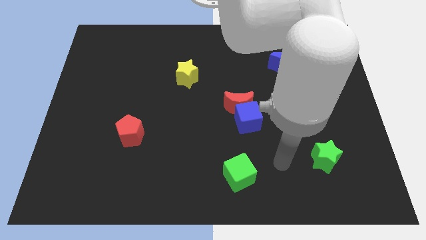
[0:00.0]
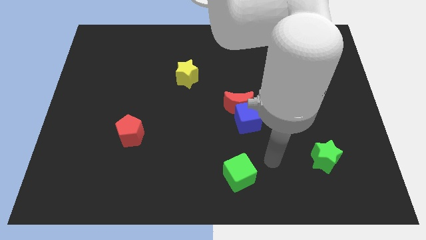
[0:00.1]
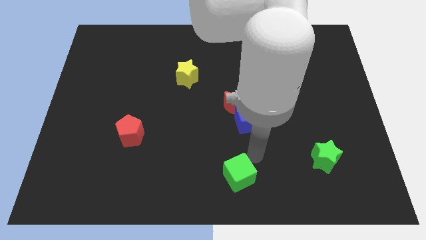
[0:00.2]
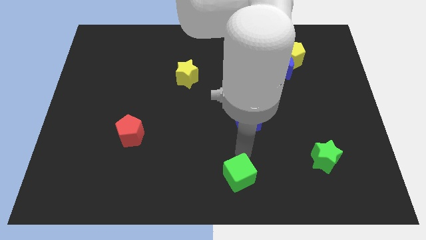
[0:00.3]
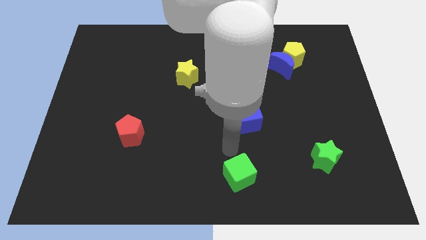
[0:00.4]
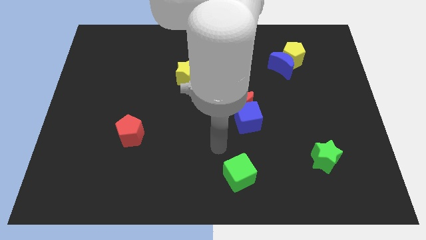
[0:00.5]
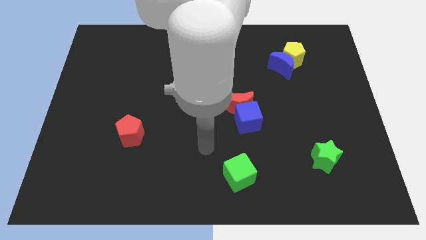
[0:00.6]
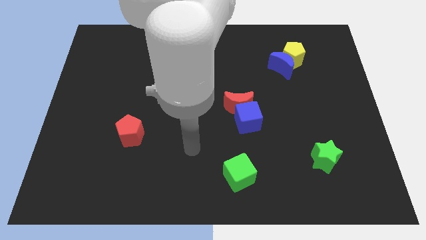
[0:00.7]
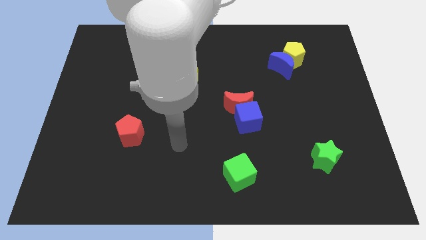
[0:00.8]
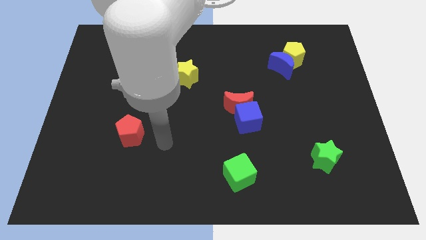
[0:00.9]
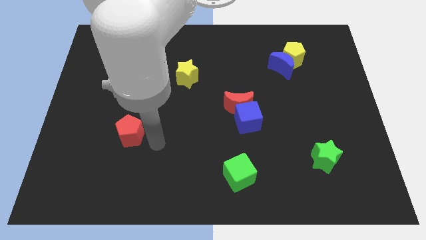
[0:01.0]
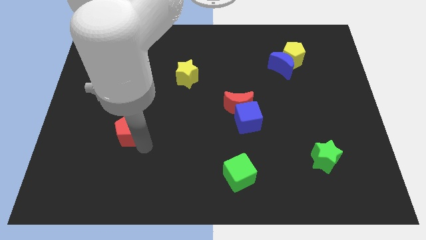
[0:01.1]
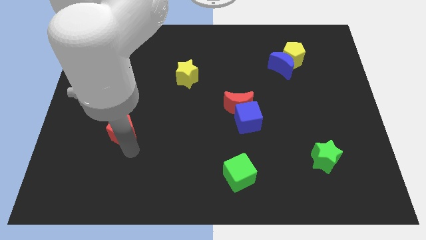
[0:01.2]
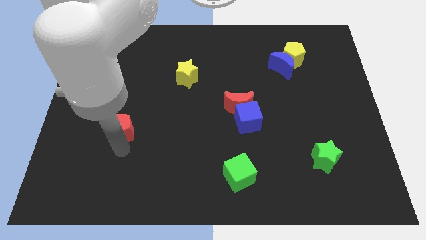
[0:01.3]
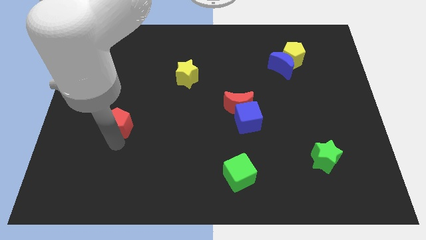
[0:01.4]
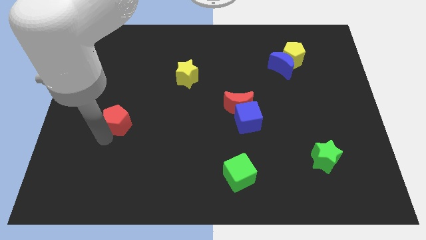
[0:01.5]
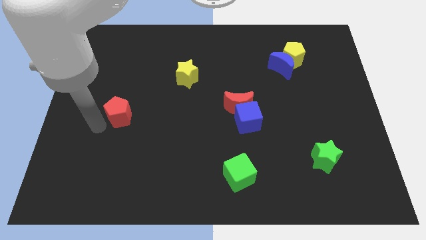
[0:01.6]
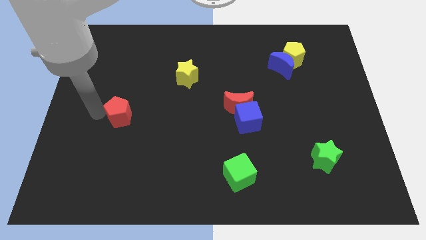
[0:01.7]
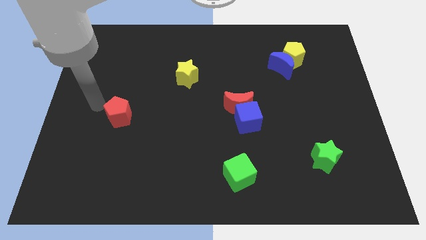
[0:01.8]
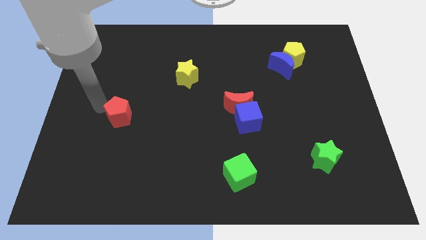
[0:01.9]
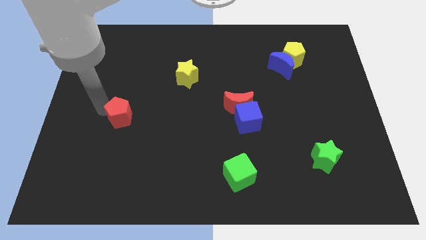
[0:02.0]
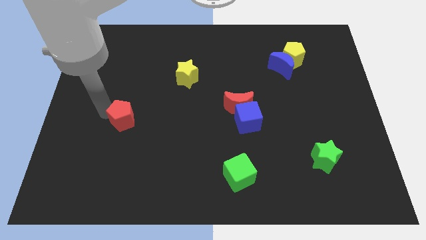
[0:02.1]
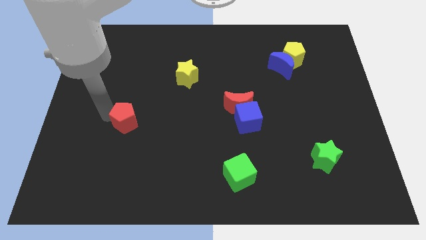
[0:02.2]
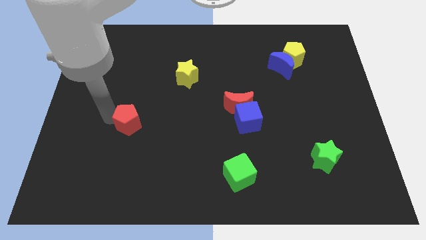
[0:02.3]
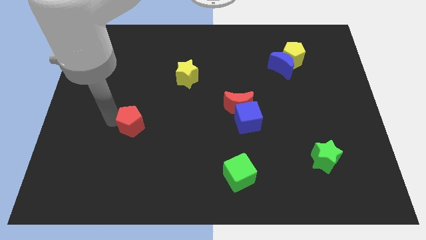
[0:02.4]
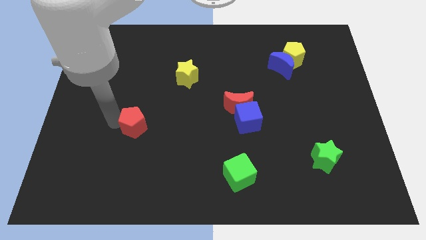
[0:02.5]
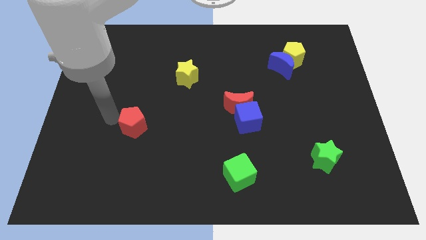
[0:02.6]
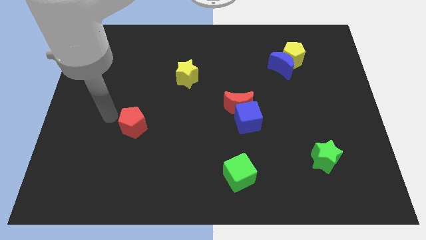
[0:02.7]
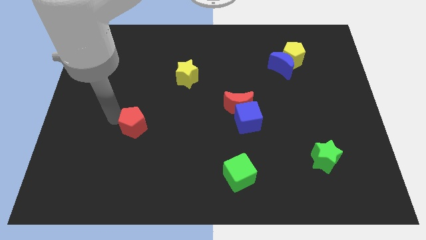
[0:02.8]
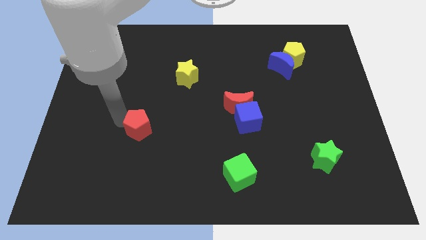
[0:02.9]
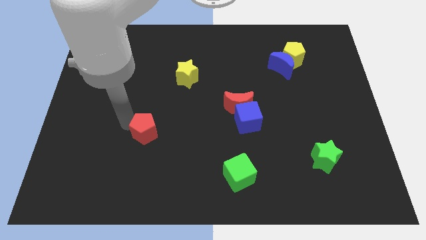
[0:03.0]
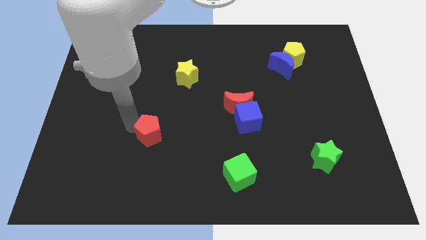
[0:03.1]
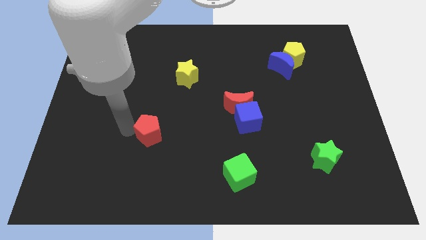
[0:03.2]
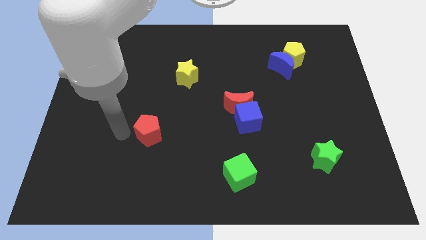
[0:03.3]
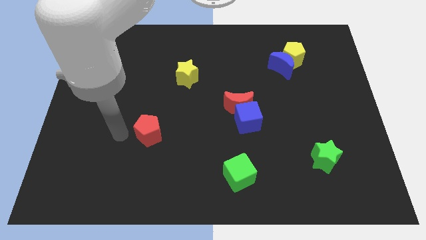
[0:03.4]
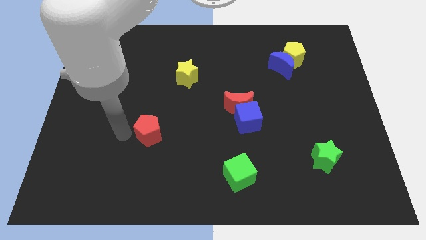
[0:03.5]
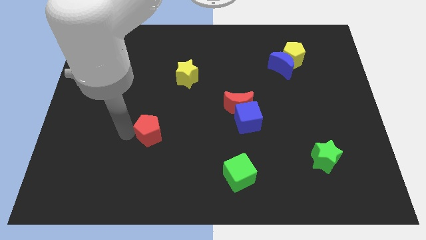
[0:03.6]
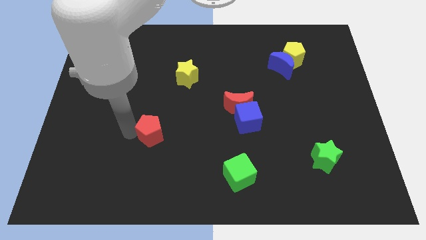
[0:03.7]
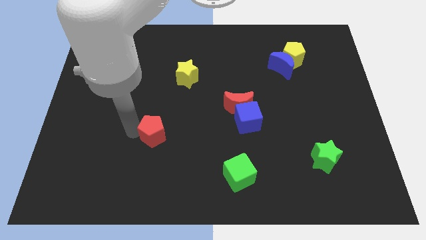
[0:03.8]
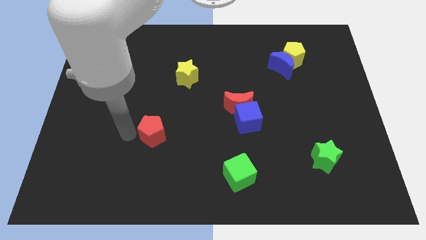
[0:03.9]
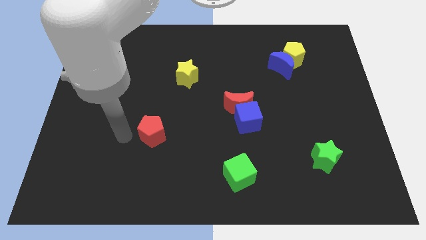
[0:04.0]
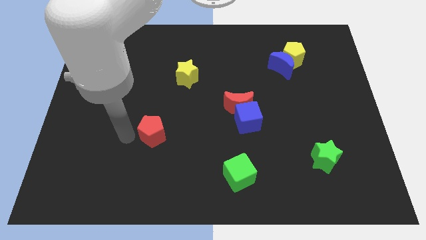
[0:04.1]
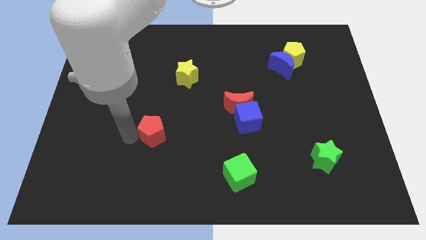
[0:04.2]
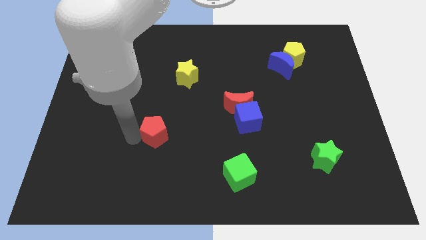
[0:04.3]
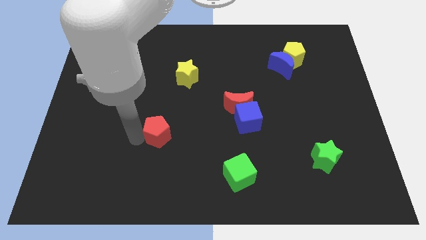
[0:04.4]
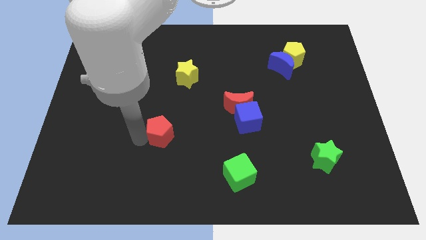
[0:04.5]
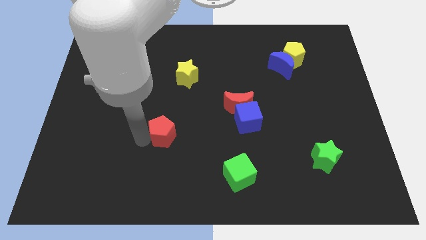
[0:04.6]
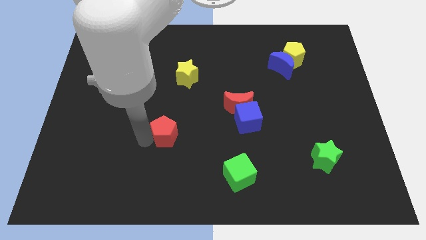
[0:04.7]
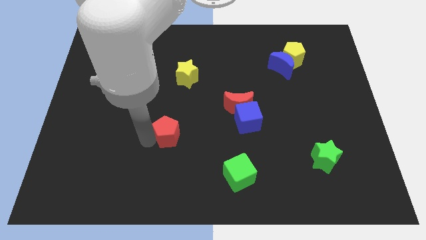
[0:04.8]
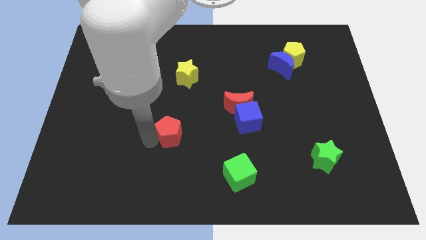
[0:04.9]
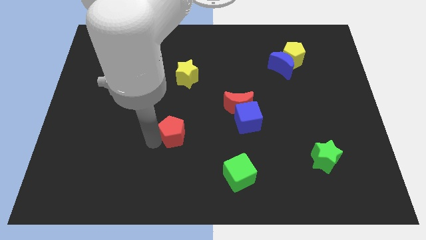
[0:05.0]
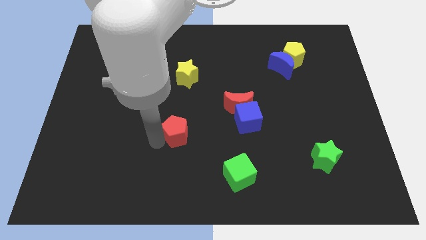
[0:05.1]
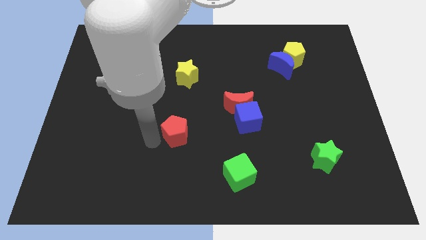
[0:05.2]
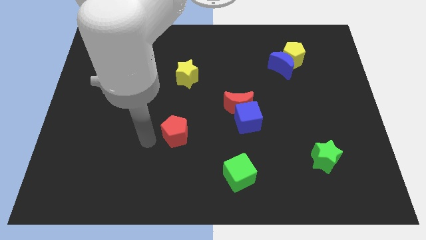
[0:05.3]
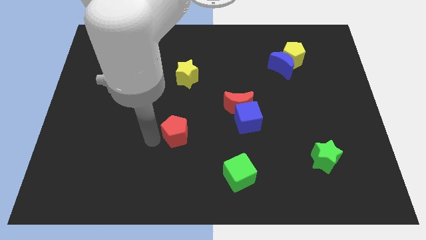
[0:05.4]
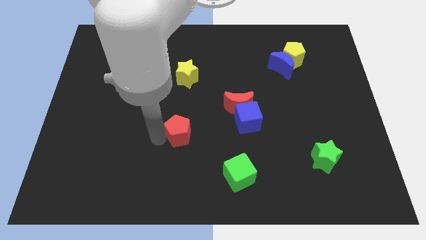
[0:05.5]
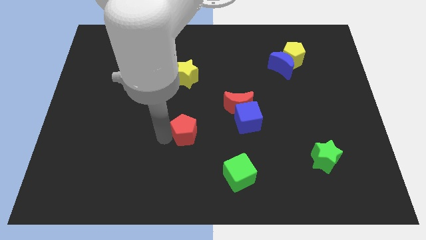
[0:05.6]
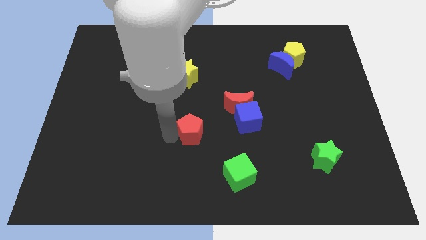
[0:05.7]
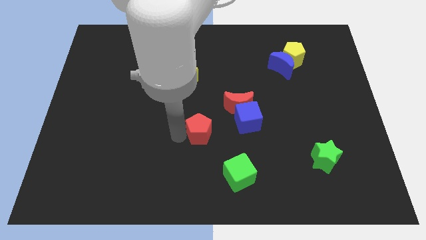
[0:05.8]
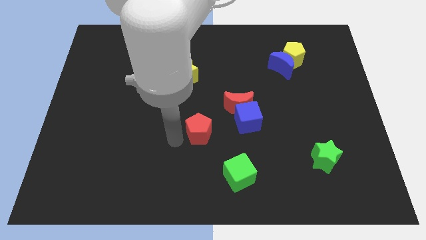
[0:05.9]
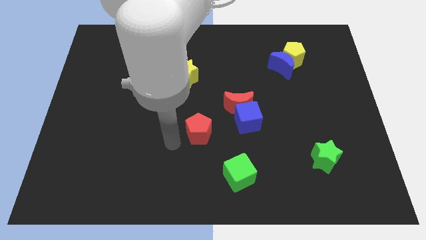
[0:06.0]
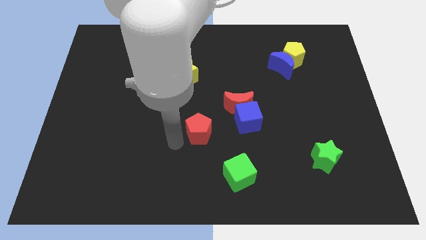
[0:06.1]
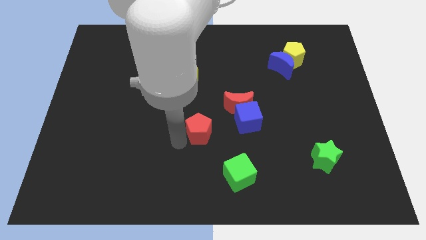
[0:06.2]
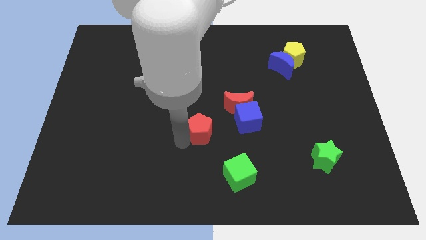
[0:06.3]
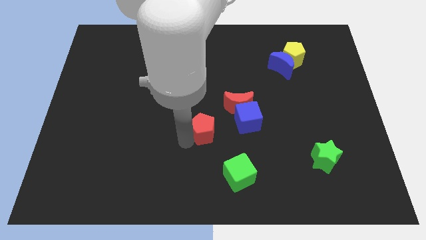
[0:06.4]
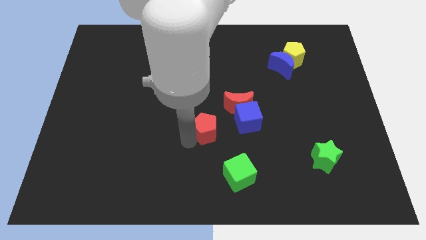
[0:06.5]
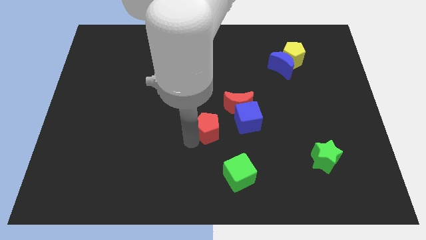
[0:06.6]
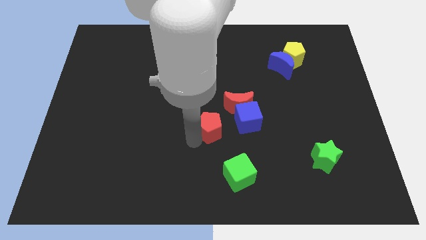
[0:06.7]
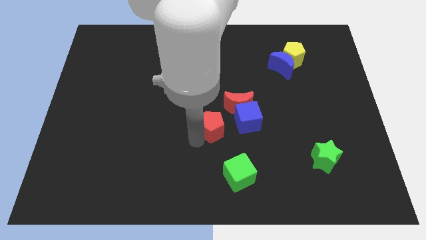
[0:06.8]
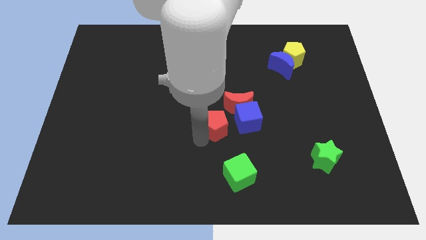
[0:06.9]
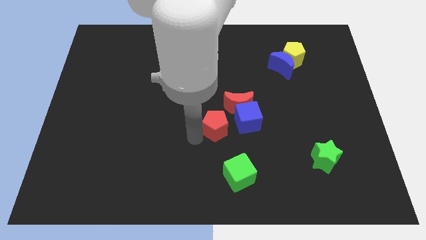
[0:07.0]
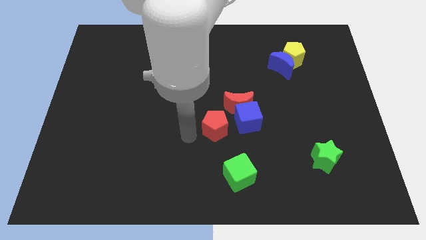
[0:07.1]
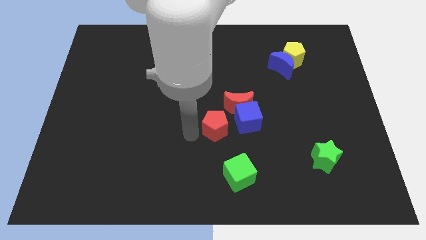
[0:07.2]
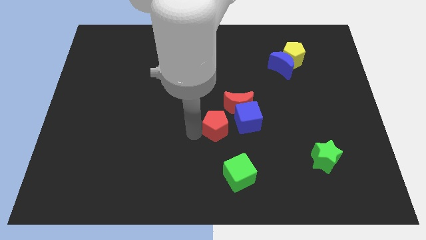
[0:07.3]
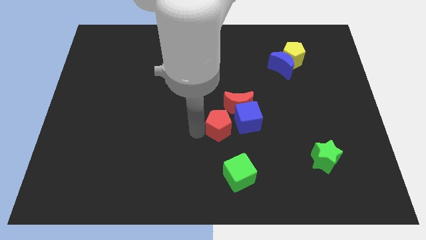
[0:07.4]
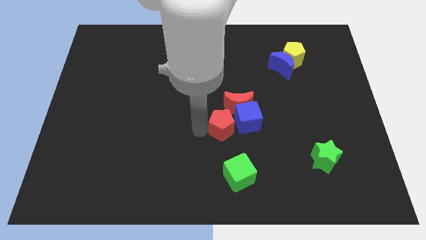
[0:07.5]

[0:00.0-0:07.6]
move the red pentagon to the blue cube
